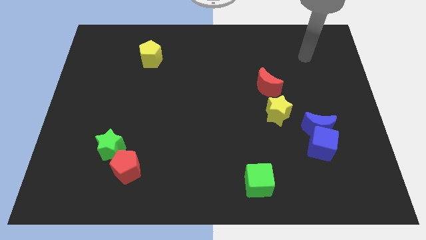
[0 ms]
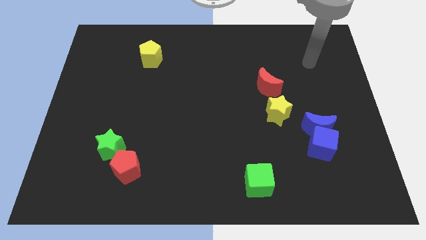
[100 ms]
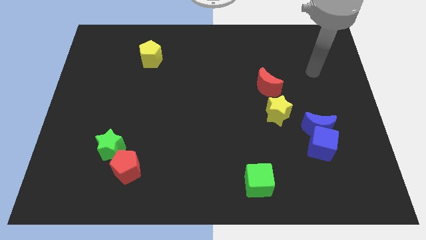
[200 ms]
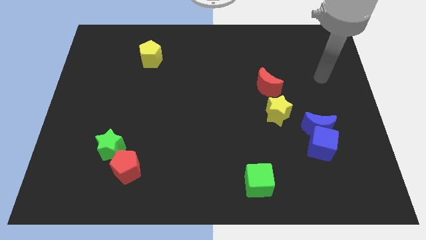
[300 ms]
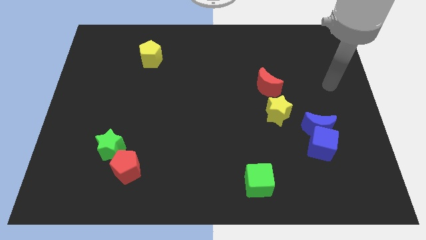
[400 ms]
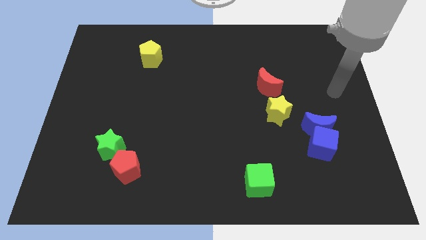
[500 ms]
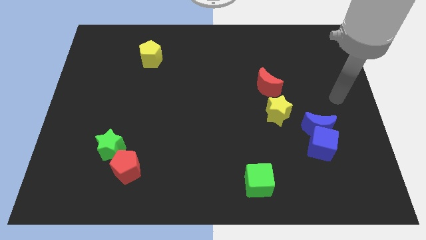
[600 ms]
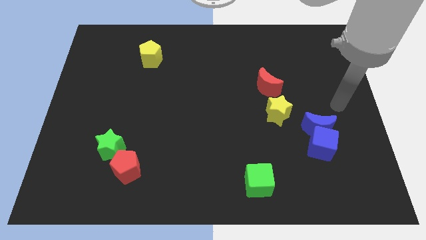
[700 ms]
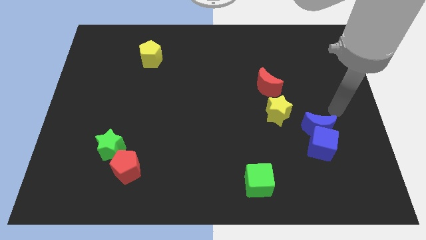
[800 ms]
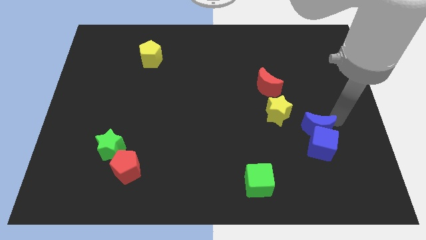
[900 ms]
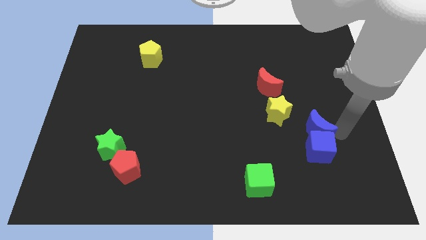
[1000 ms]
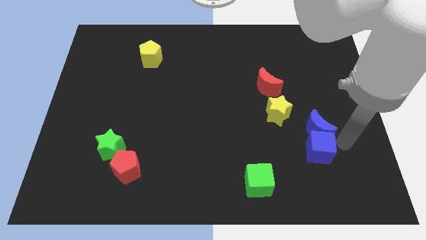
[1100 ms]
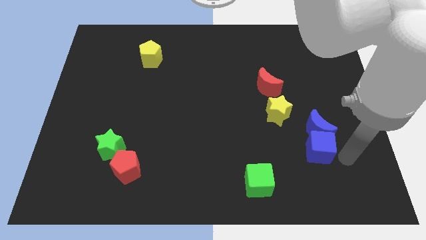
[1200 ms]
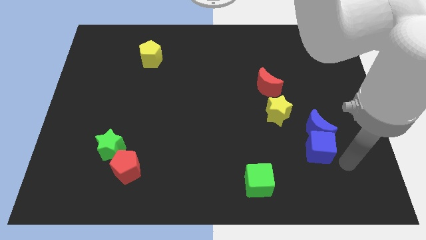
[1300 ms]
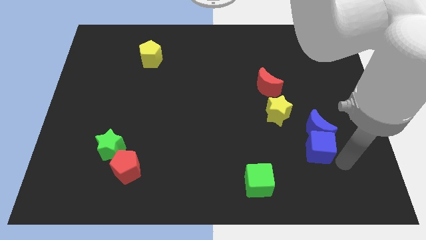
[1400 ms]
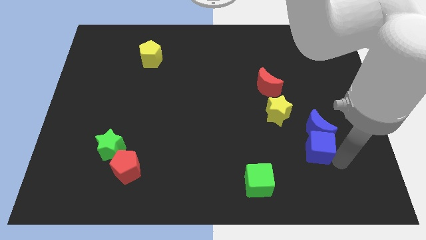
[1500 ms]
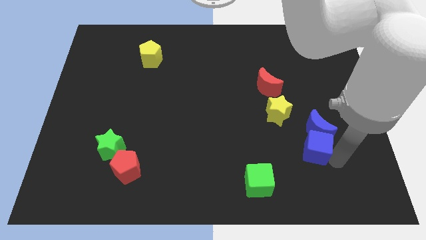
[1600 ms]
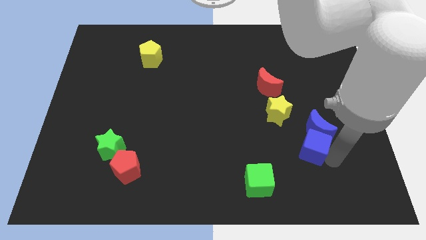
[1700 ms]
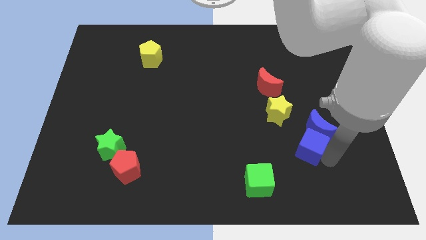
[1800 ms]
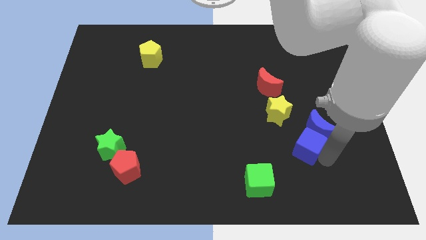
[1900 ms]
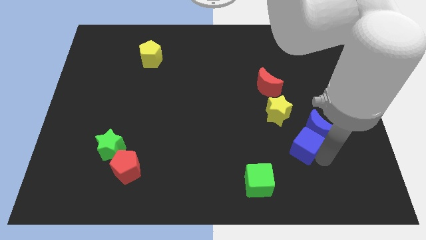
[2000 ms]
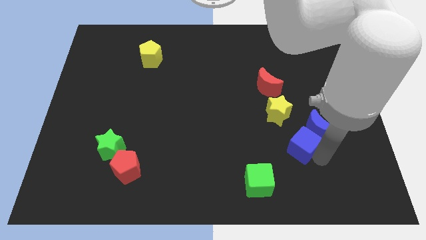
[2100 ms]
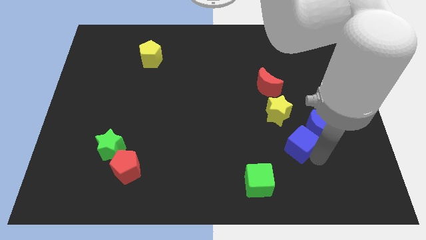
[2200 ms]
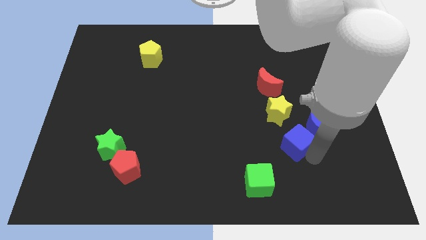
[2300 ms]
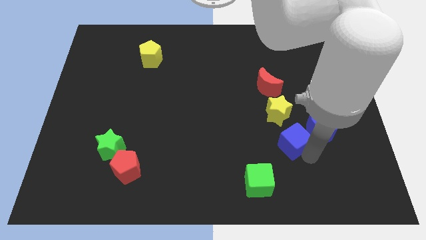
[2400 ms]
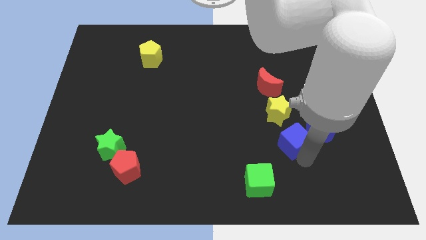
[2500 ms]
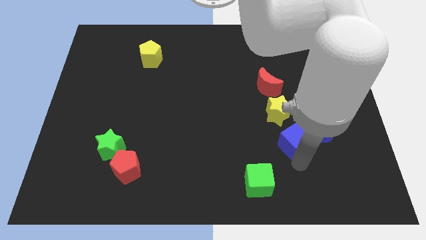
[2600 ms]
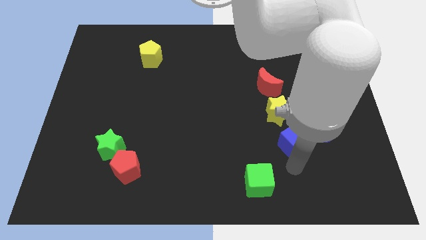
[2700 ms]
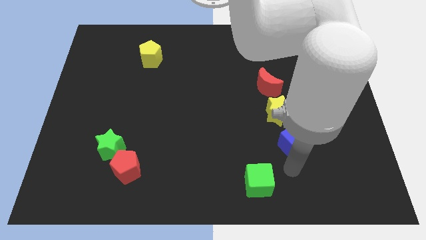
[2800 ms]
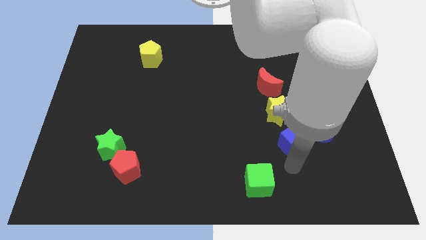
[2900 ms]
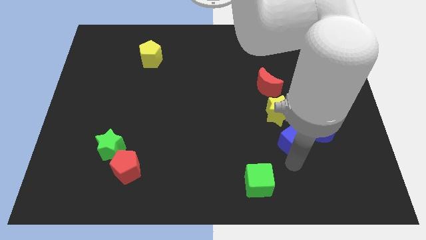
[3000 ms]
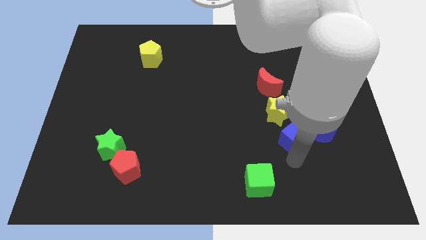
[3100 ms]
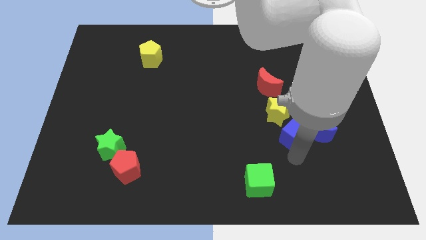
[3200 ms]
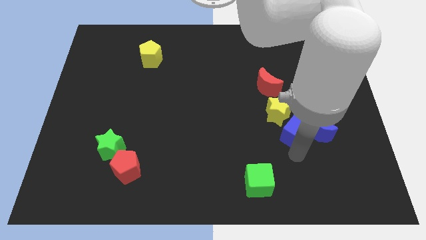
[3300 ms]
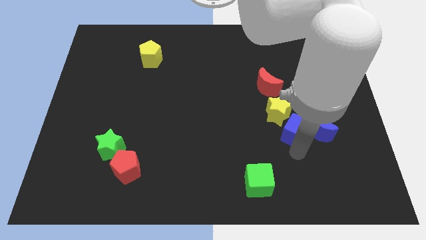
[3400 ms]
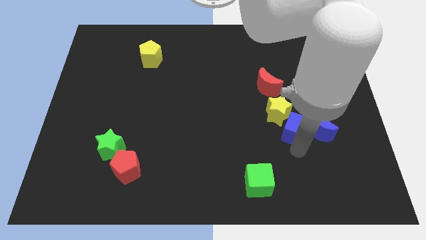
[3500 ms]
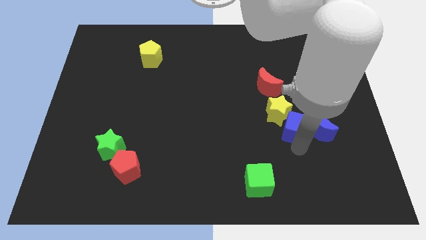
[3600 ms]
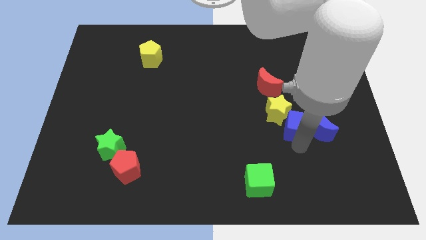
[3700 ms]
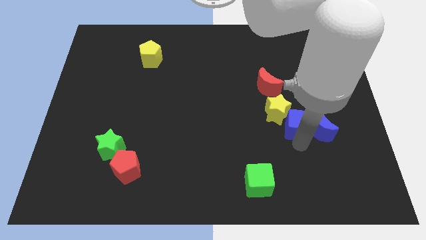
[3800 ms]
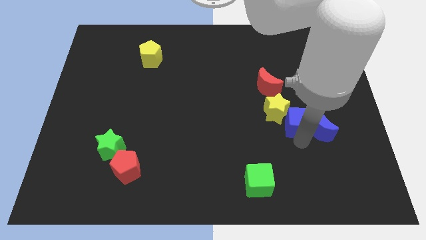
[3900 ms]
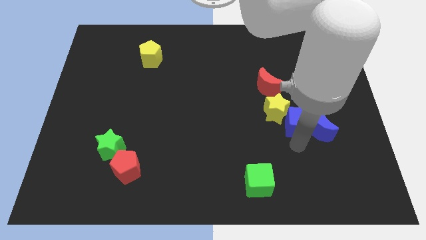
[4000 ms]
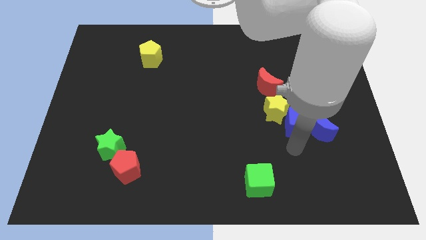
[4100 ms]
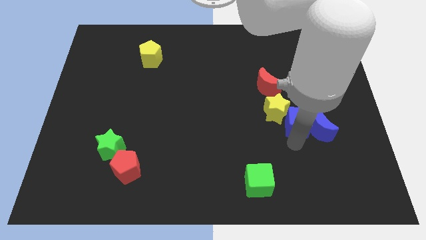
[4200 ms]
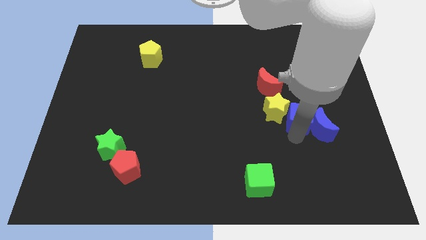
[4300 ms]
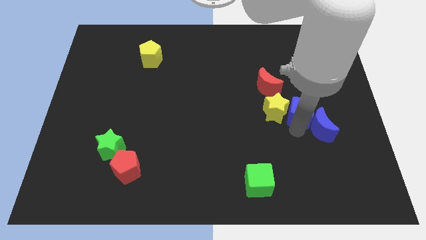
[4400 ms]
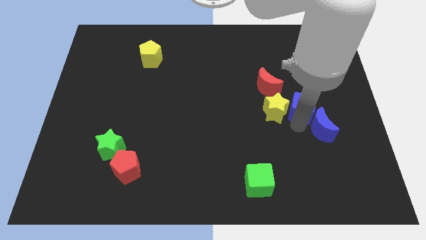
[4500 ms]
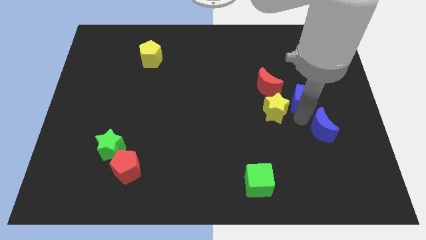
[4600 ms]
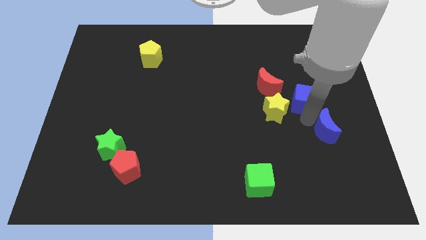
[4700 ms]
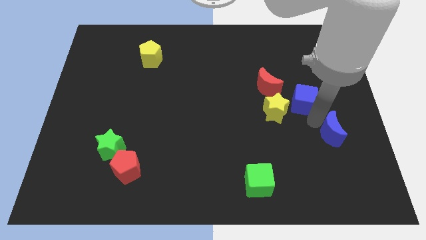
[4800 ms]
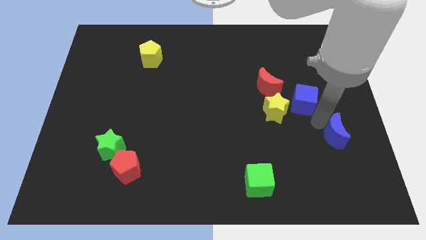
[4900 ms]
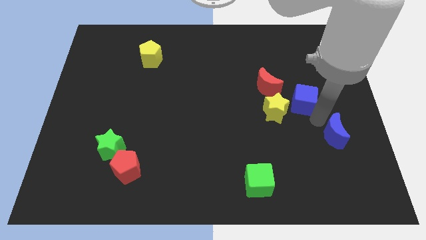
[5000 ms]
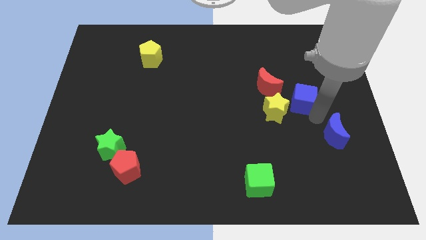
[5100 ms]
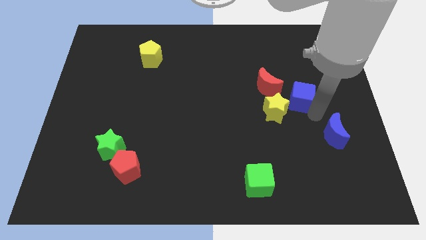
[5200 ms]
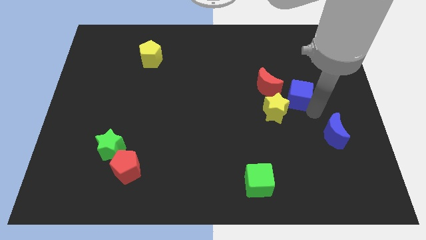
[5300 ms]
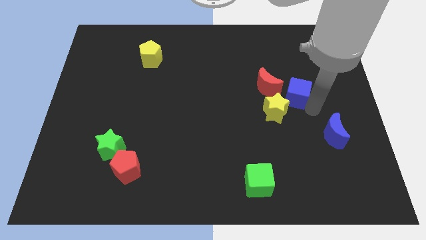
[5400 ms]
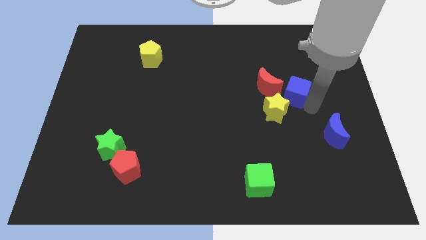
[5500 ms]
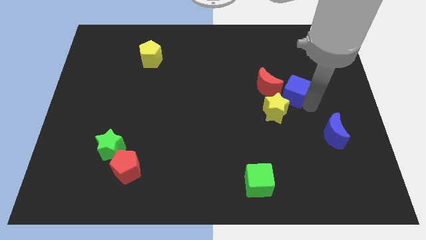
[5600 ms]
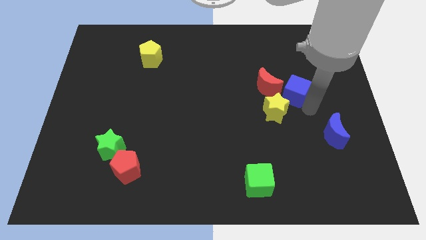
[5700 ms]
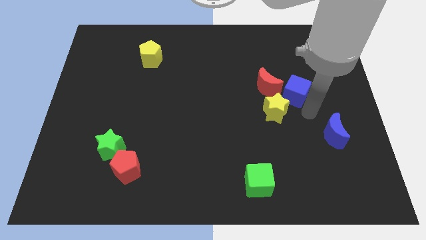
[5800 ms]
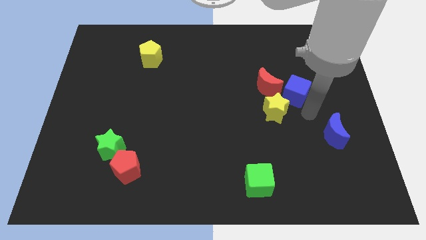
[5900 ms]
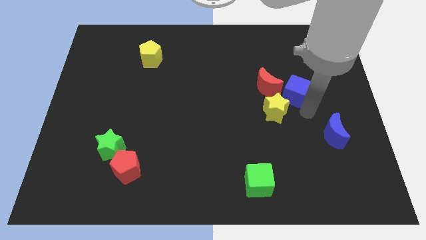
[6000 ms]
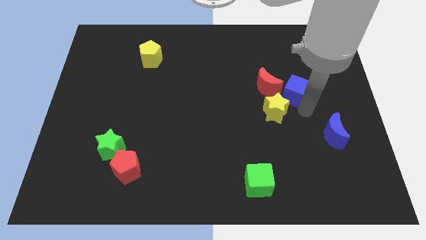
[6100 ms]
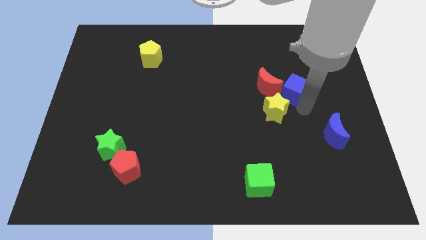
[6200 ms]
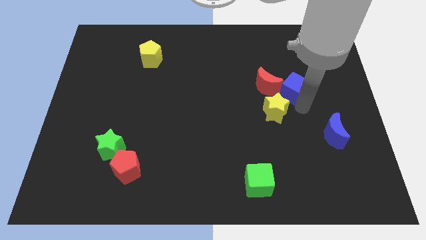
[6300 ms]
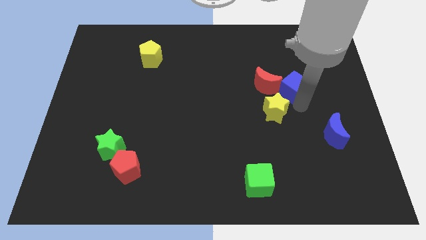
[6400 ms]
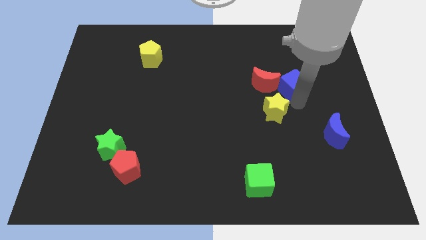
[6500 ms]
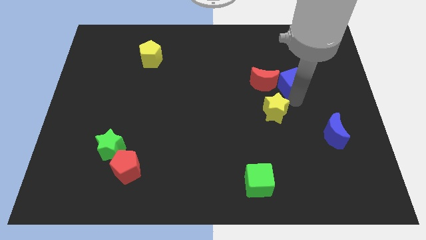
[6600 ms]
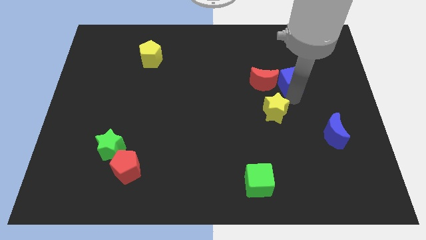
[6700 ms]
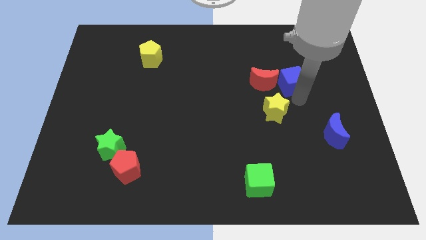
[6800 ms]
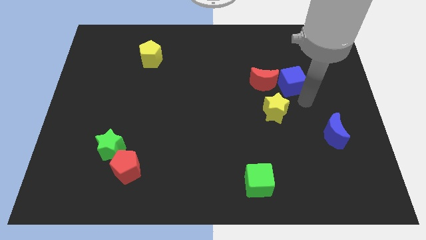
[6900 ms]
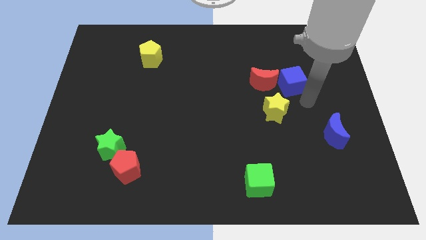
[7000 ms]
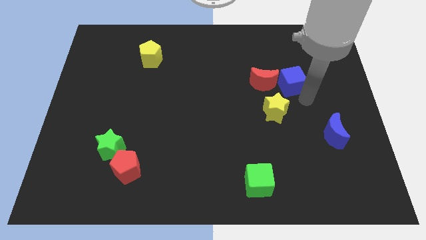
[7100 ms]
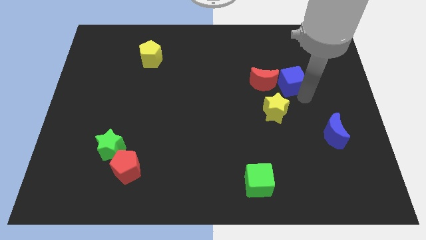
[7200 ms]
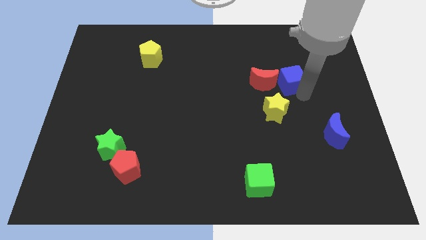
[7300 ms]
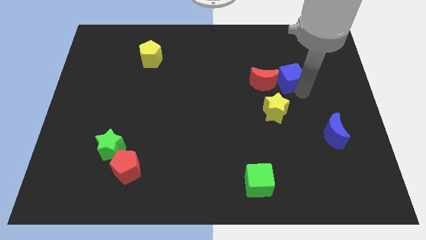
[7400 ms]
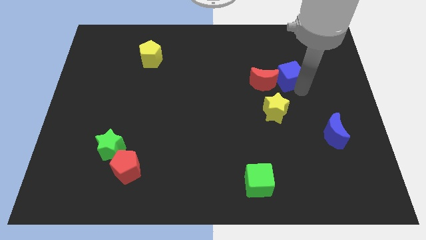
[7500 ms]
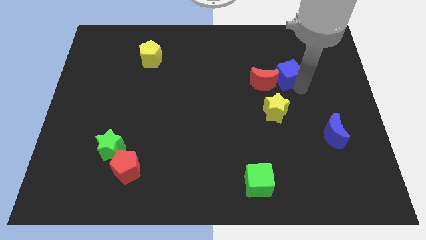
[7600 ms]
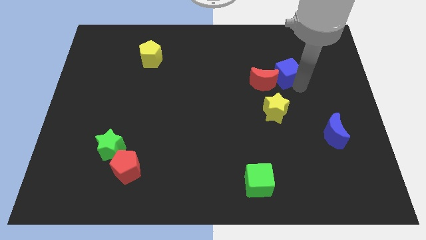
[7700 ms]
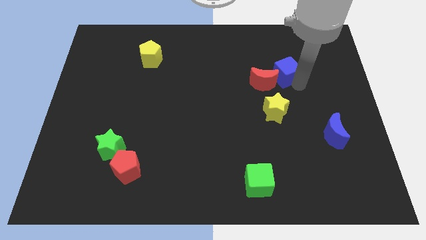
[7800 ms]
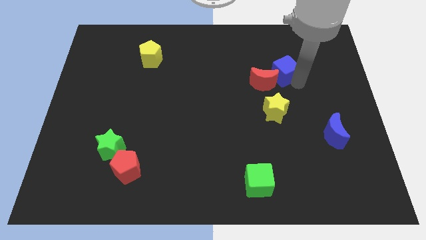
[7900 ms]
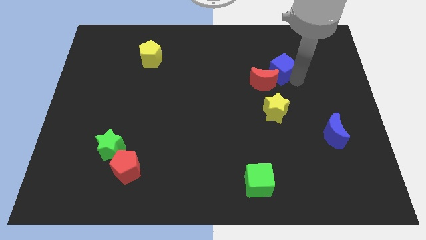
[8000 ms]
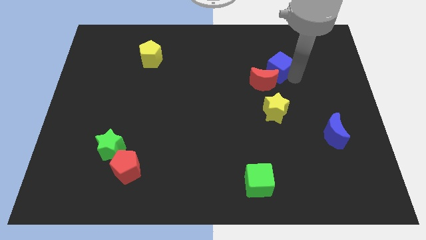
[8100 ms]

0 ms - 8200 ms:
slide the blue cube to the top of the red moon
